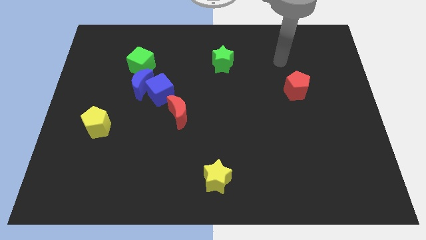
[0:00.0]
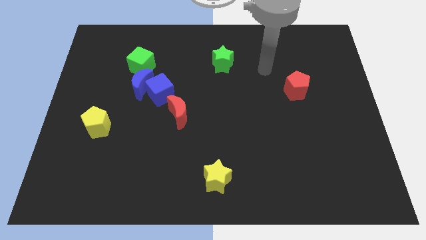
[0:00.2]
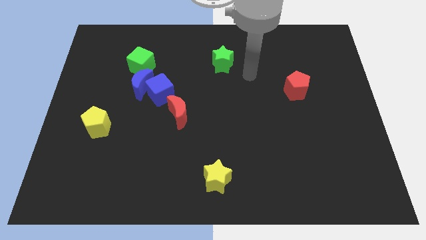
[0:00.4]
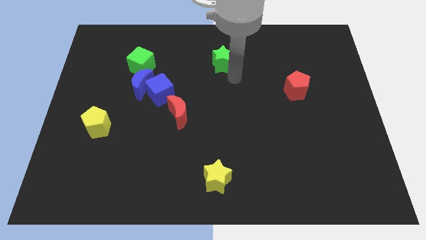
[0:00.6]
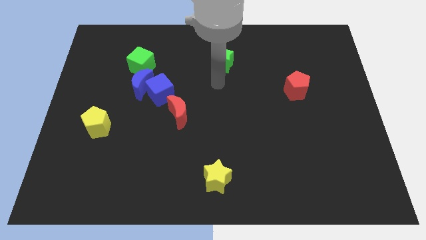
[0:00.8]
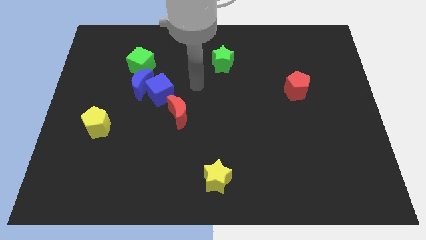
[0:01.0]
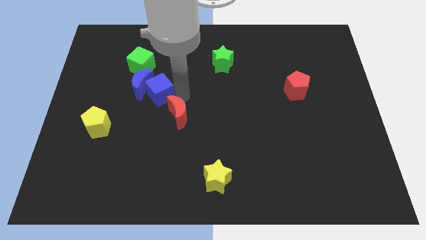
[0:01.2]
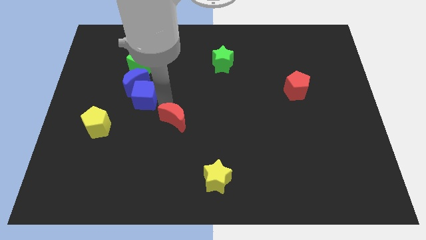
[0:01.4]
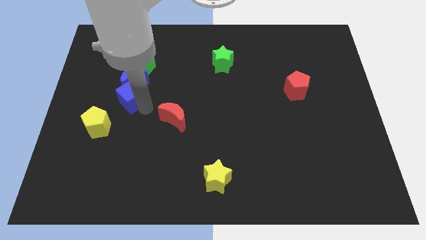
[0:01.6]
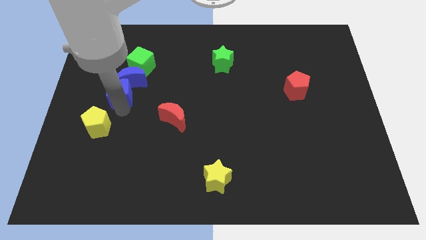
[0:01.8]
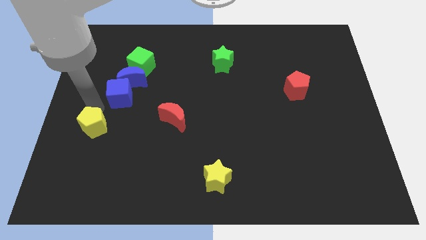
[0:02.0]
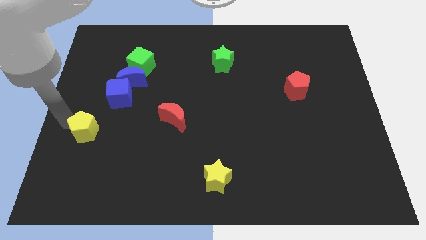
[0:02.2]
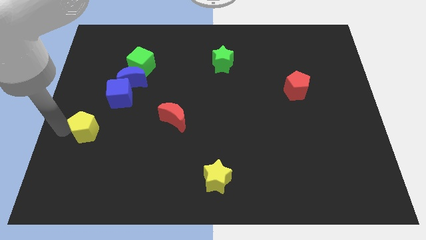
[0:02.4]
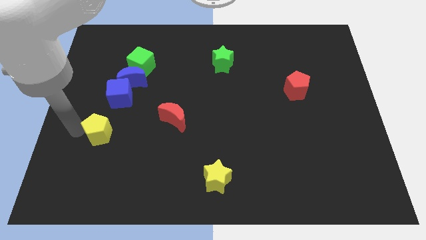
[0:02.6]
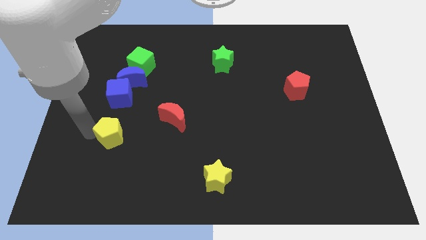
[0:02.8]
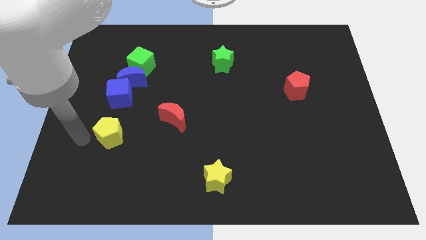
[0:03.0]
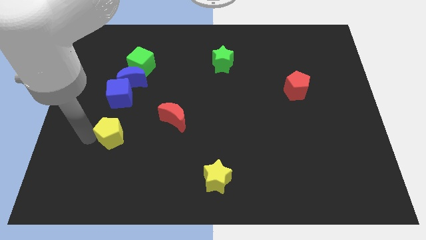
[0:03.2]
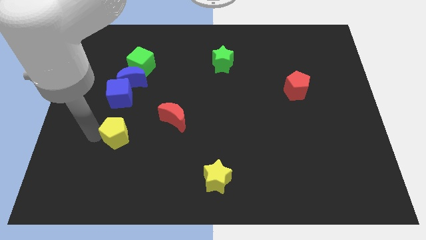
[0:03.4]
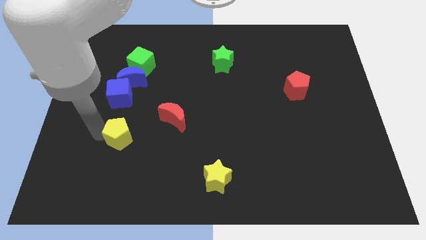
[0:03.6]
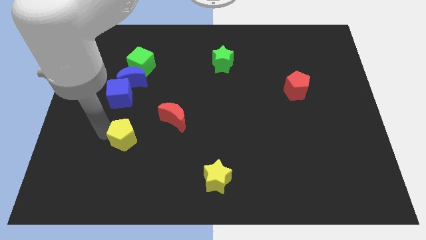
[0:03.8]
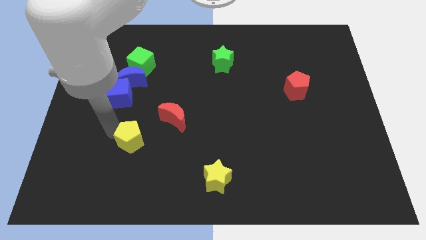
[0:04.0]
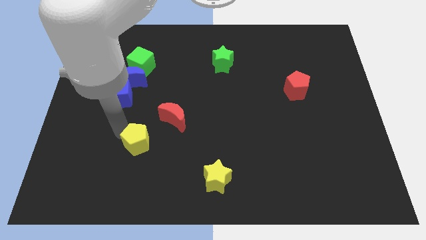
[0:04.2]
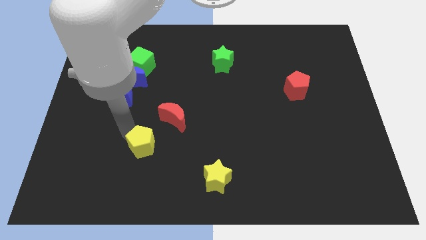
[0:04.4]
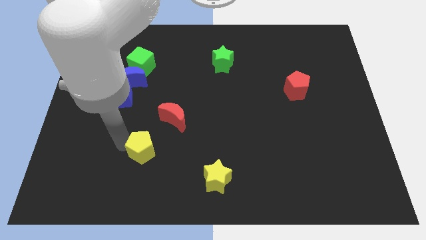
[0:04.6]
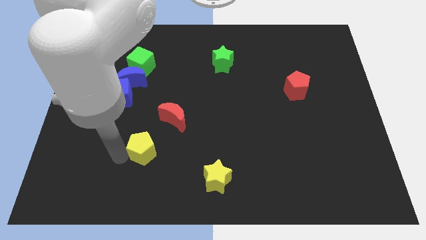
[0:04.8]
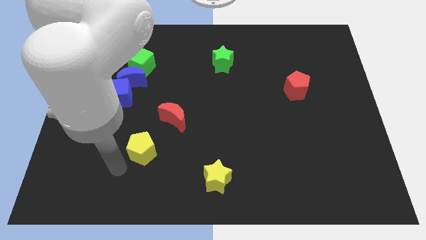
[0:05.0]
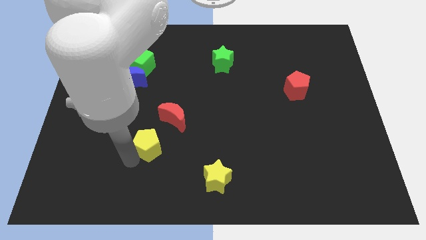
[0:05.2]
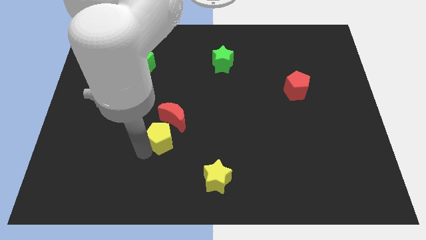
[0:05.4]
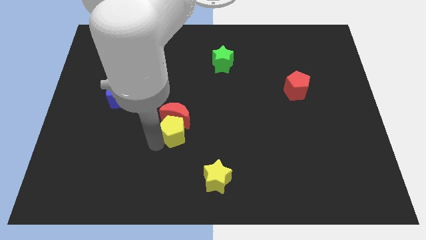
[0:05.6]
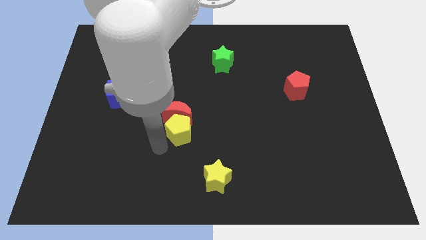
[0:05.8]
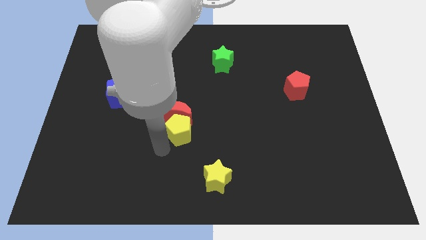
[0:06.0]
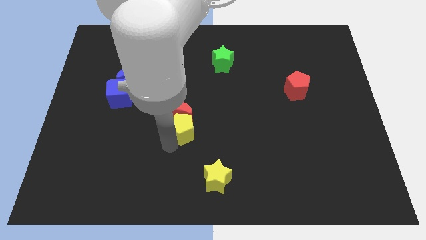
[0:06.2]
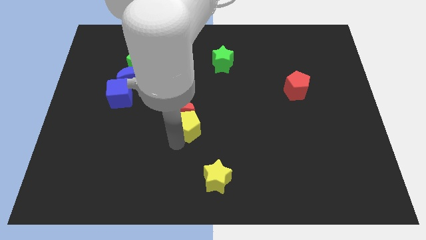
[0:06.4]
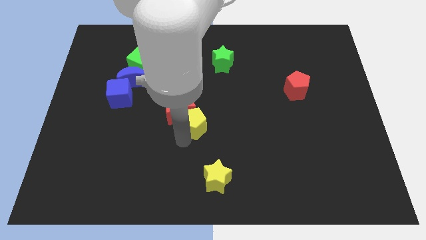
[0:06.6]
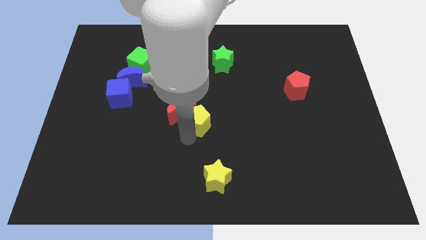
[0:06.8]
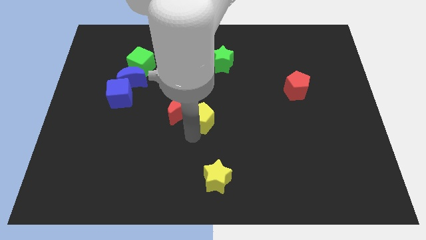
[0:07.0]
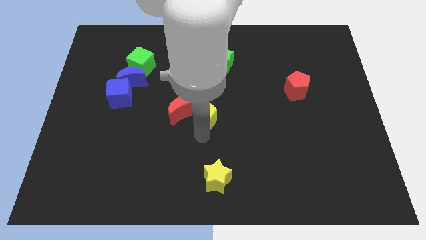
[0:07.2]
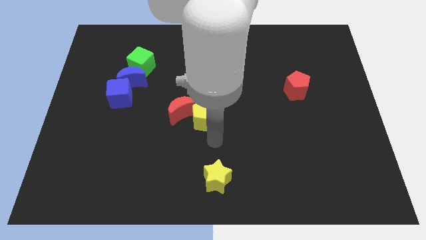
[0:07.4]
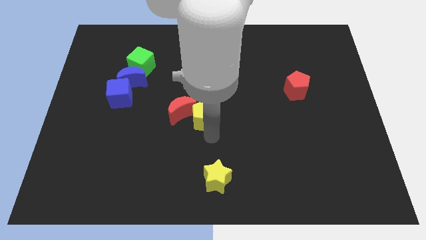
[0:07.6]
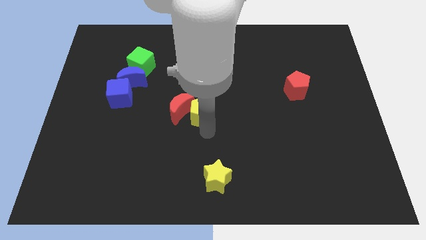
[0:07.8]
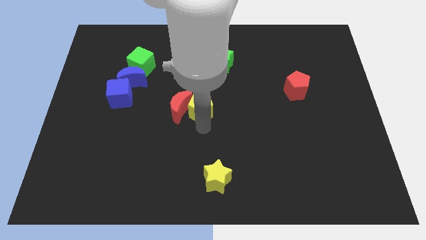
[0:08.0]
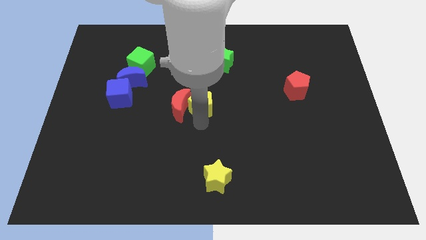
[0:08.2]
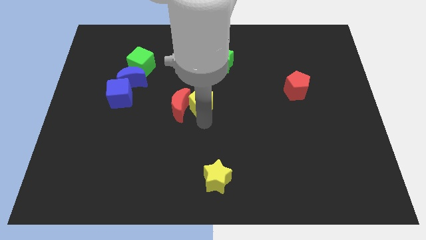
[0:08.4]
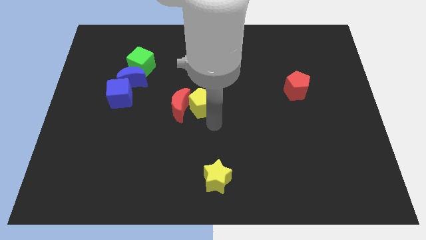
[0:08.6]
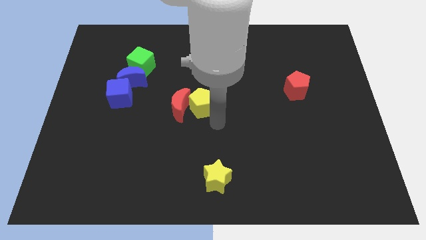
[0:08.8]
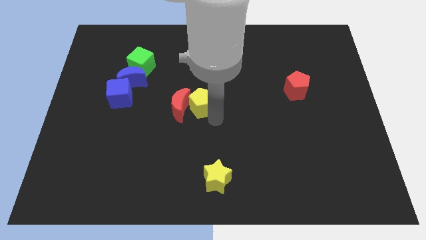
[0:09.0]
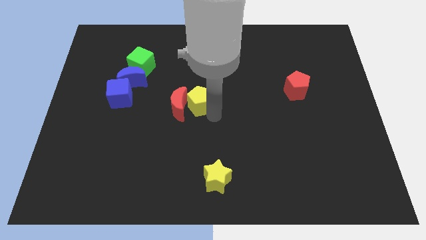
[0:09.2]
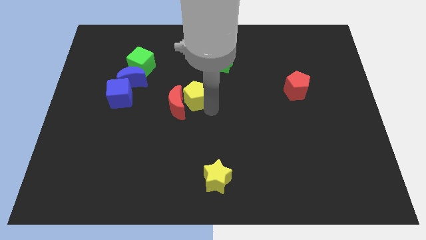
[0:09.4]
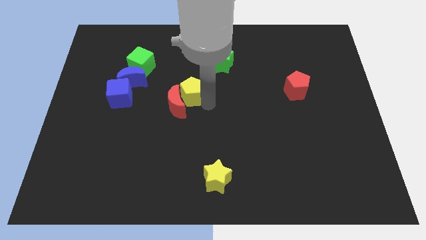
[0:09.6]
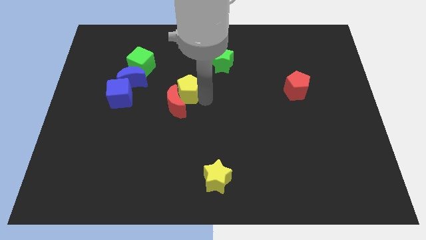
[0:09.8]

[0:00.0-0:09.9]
put the yellow pentagon to the right of the blue moon

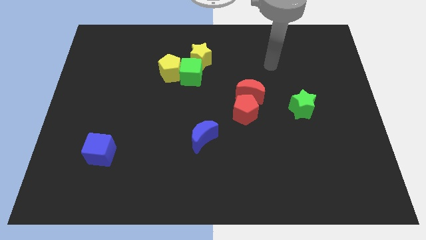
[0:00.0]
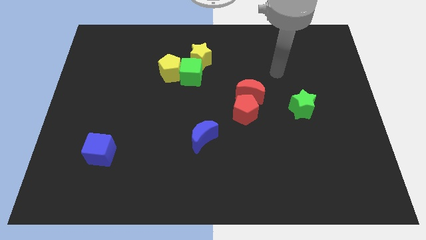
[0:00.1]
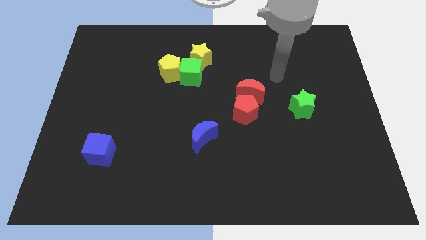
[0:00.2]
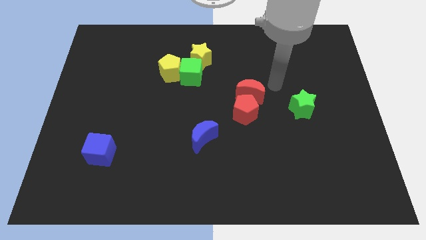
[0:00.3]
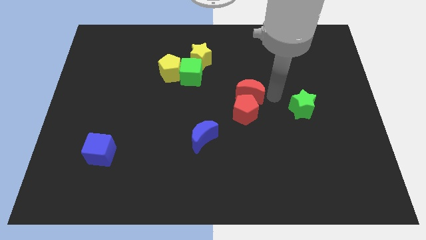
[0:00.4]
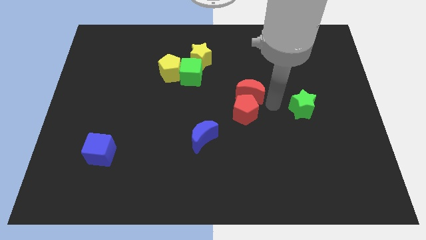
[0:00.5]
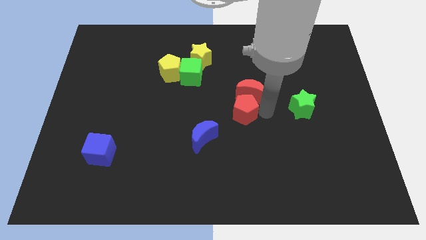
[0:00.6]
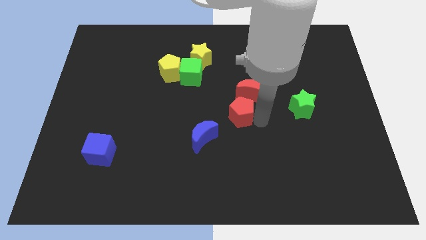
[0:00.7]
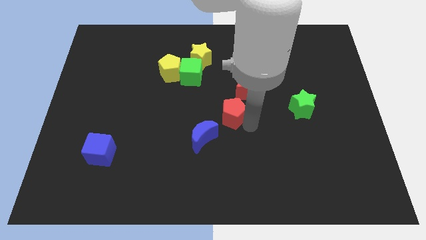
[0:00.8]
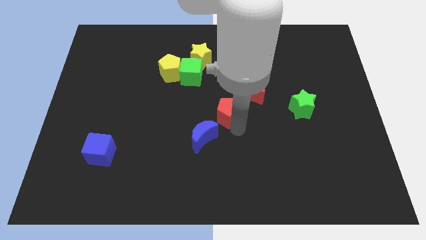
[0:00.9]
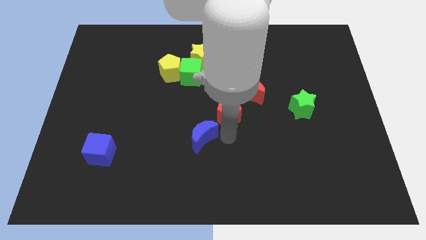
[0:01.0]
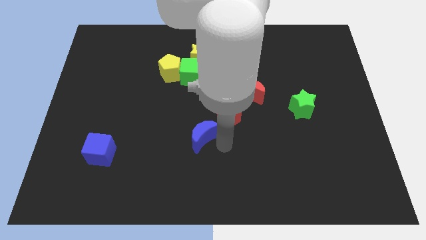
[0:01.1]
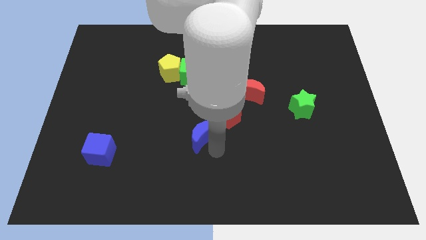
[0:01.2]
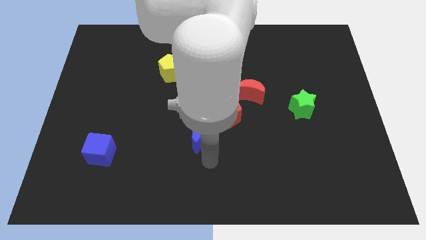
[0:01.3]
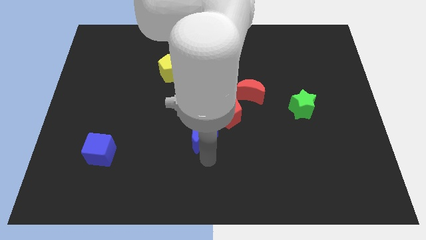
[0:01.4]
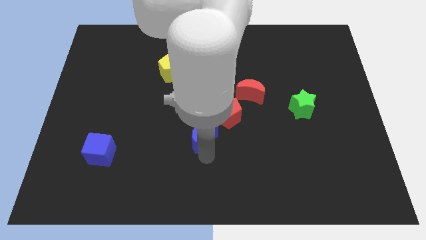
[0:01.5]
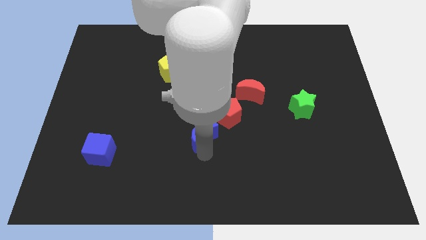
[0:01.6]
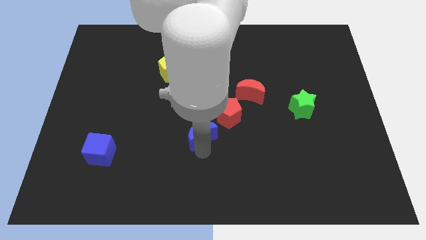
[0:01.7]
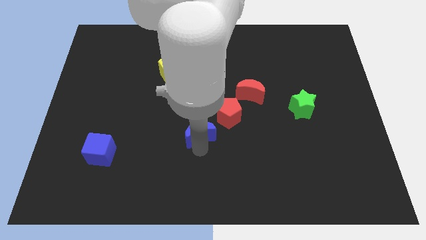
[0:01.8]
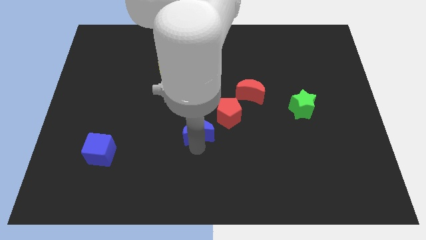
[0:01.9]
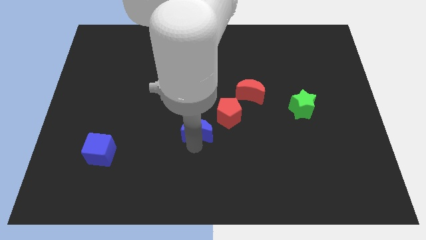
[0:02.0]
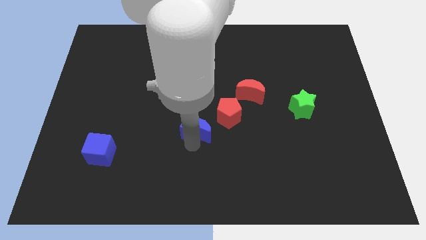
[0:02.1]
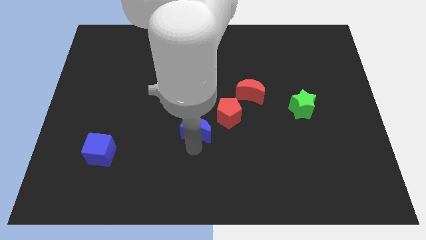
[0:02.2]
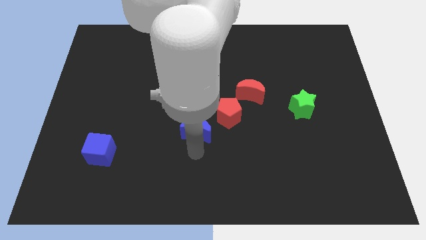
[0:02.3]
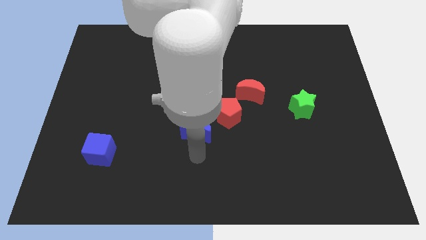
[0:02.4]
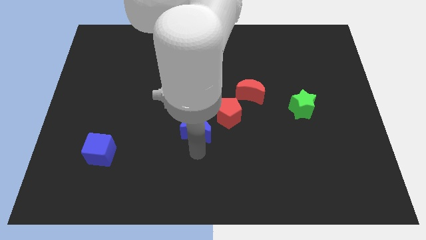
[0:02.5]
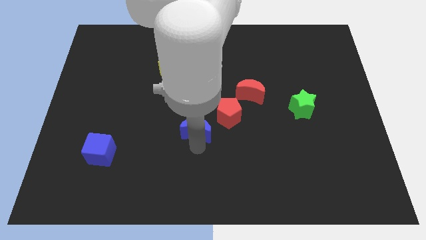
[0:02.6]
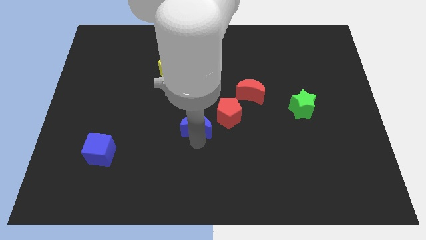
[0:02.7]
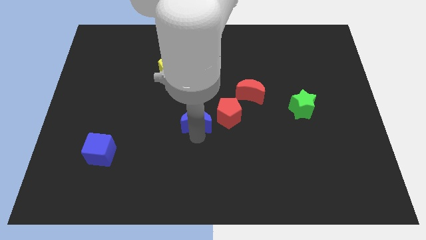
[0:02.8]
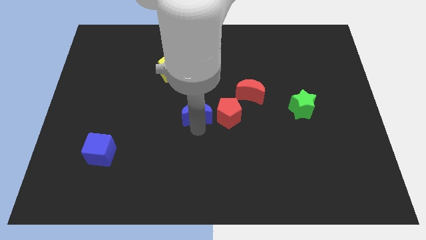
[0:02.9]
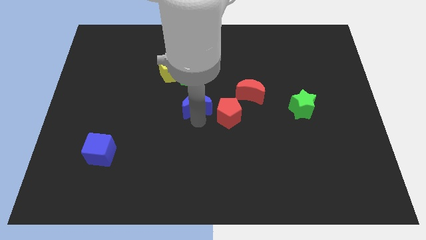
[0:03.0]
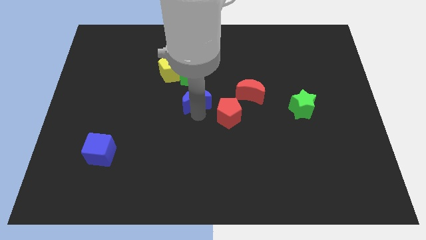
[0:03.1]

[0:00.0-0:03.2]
push the blue moon to the bottom right side of the yellow pentagon
